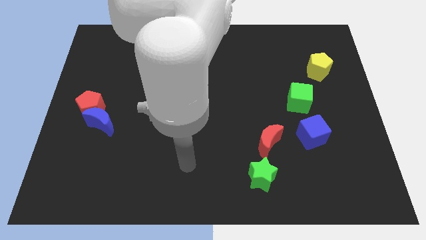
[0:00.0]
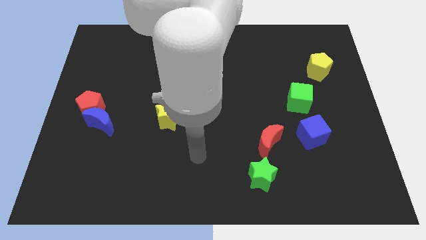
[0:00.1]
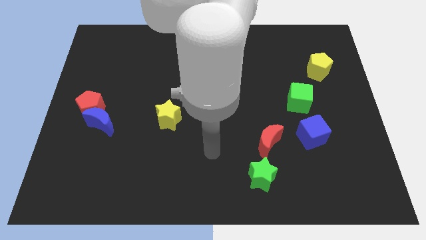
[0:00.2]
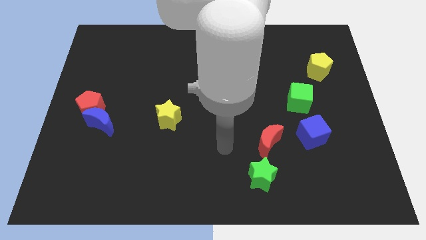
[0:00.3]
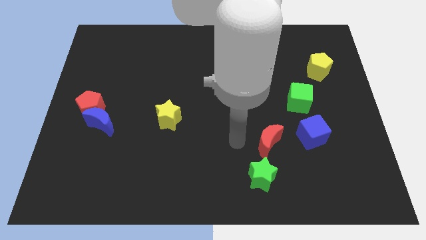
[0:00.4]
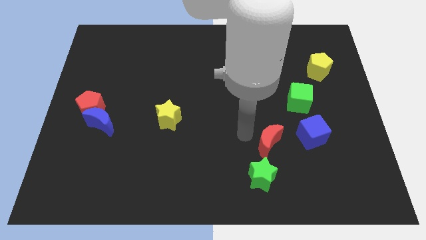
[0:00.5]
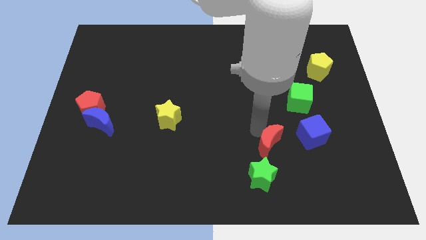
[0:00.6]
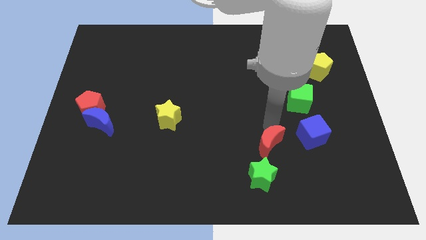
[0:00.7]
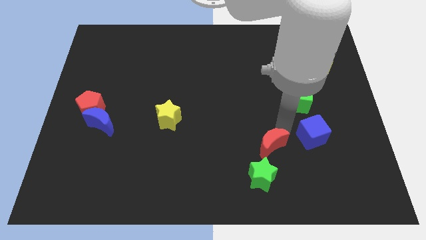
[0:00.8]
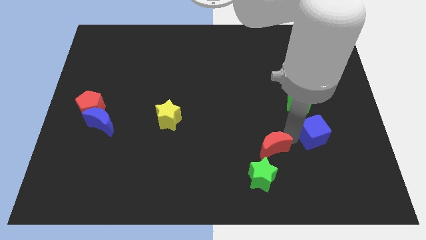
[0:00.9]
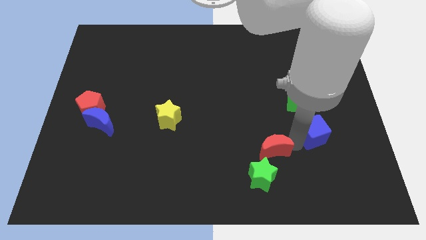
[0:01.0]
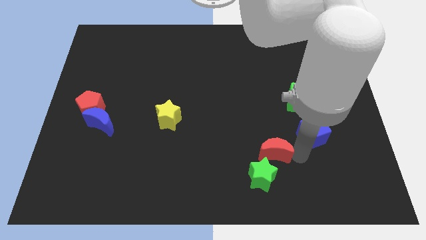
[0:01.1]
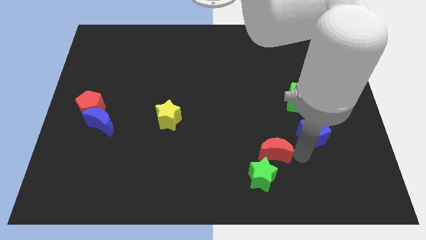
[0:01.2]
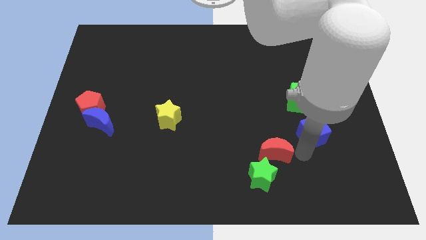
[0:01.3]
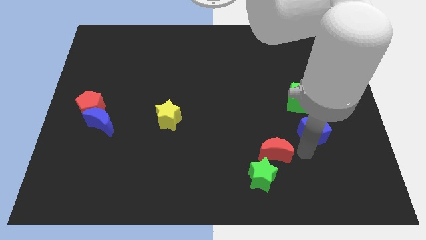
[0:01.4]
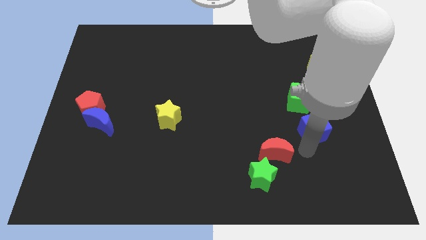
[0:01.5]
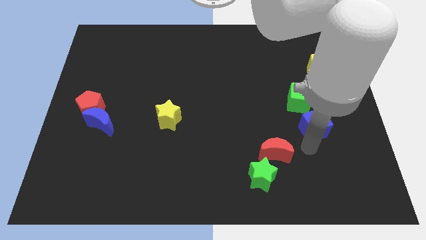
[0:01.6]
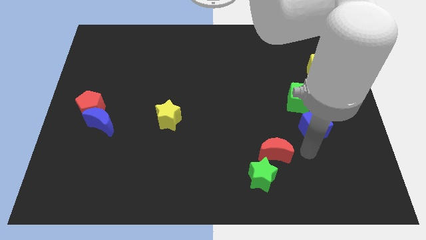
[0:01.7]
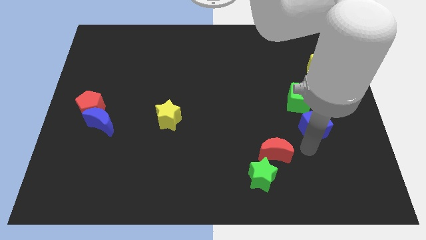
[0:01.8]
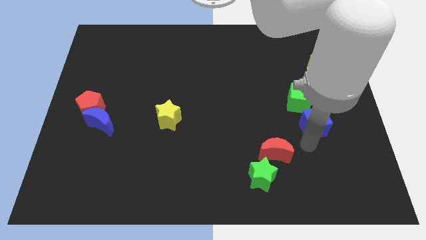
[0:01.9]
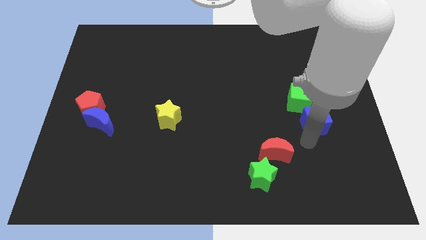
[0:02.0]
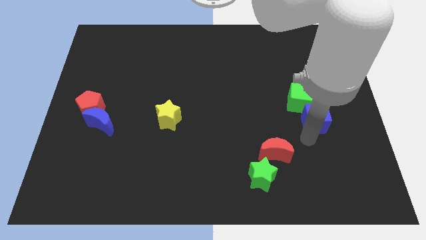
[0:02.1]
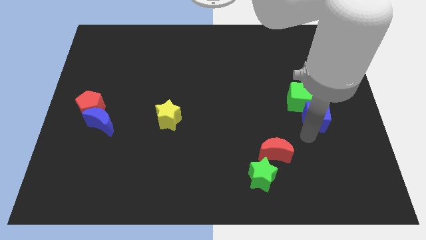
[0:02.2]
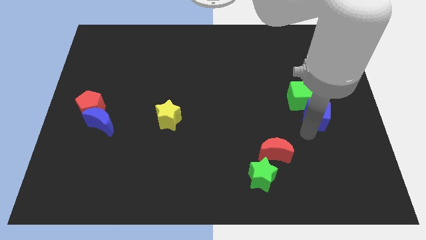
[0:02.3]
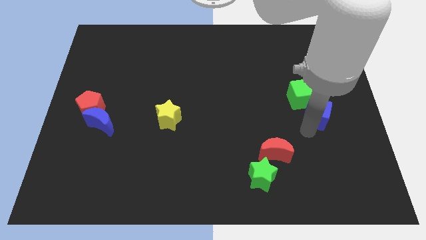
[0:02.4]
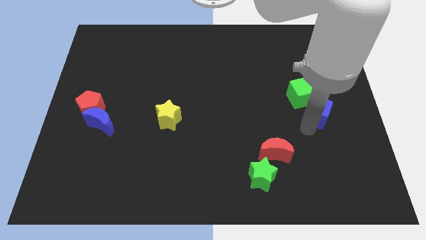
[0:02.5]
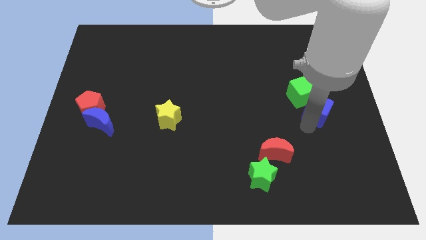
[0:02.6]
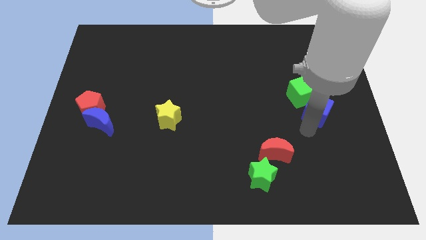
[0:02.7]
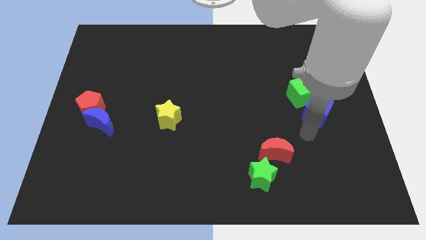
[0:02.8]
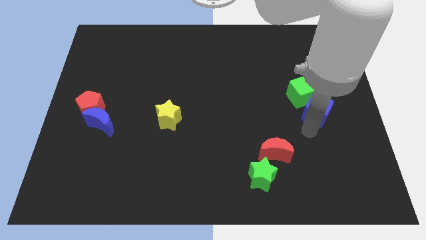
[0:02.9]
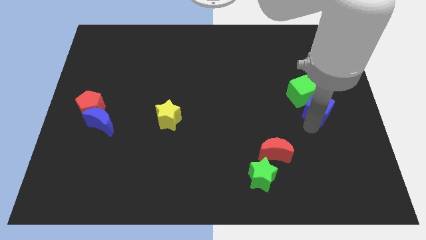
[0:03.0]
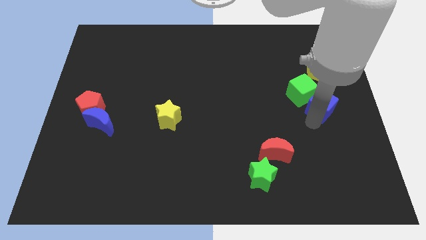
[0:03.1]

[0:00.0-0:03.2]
move the blue cube upwards a little

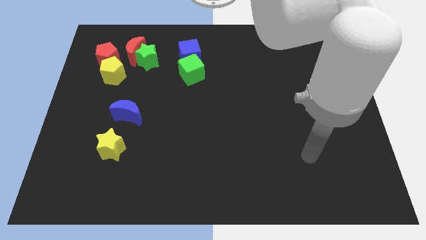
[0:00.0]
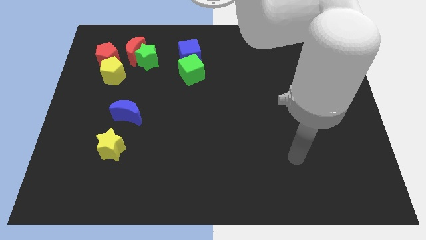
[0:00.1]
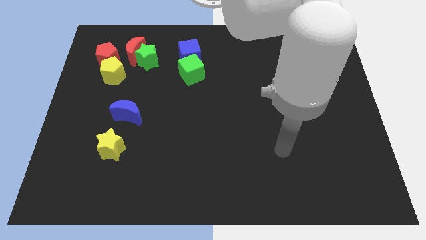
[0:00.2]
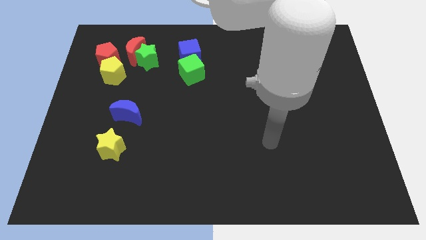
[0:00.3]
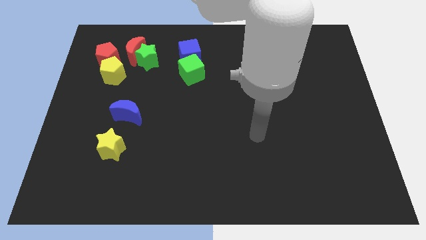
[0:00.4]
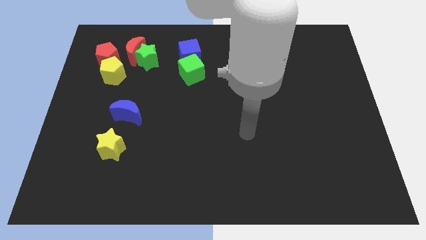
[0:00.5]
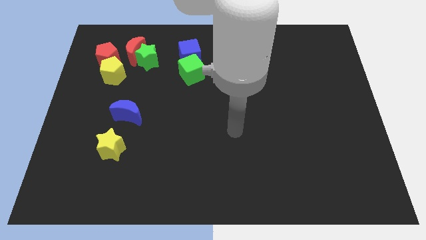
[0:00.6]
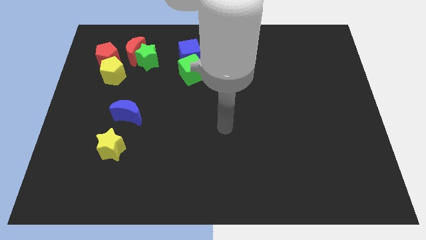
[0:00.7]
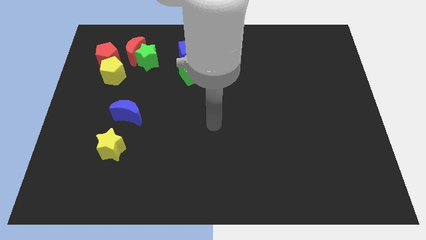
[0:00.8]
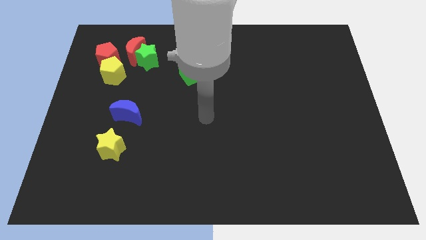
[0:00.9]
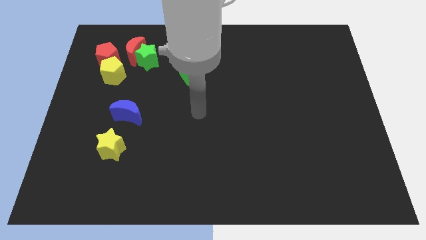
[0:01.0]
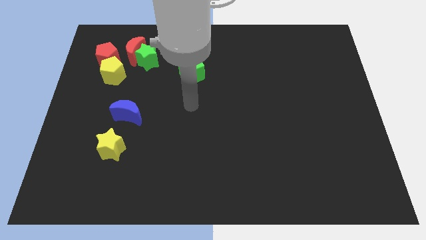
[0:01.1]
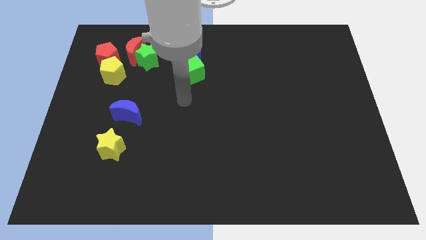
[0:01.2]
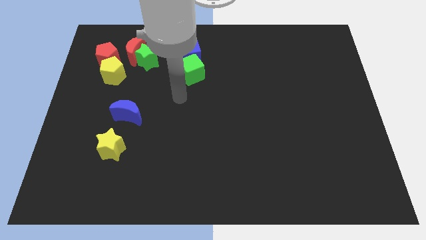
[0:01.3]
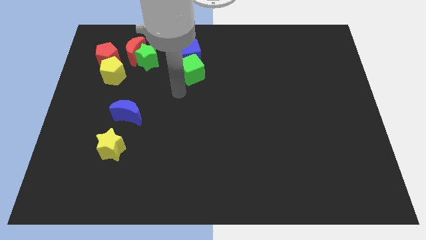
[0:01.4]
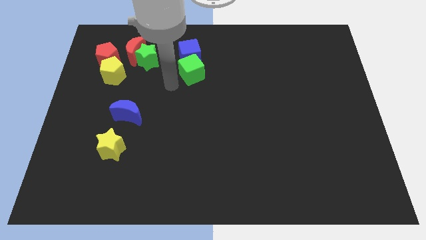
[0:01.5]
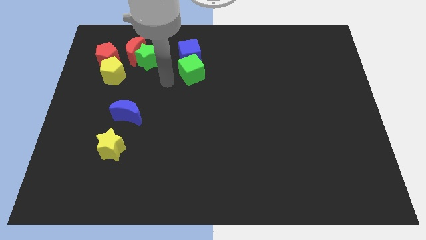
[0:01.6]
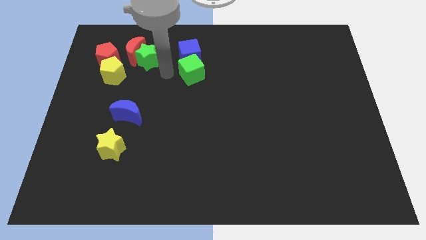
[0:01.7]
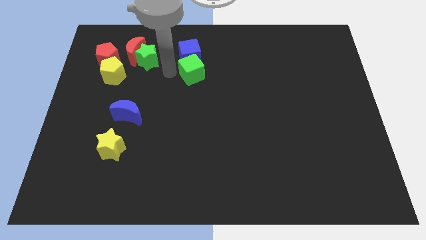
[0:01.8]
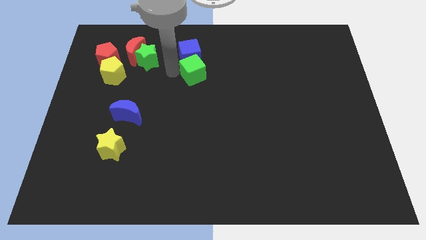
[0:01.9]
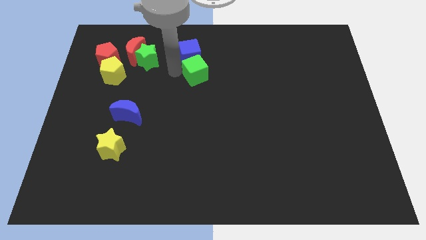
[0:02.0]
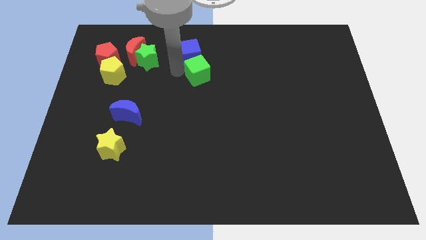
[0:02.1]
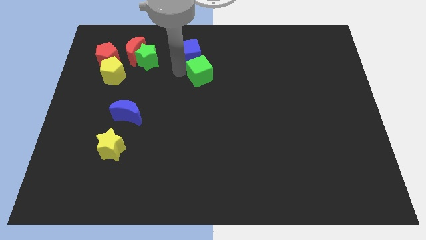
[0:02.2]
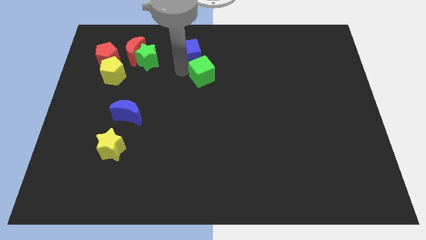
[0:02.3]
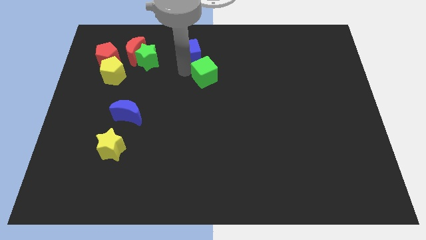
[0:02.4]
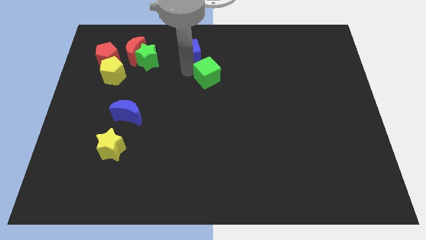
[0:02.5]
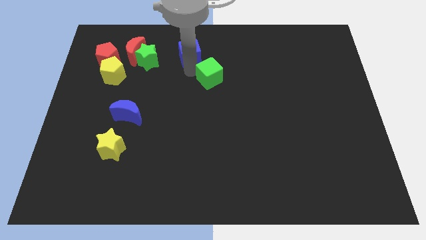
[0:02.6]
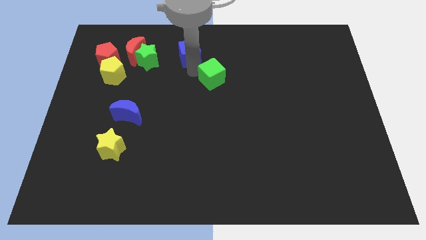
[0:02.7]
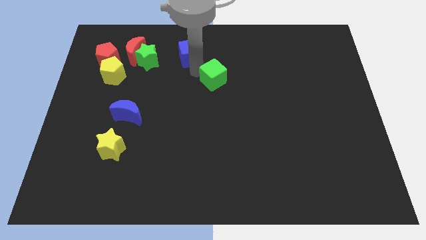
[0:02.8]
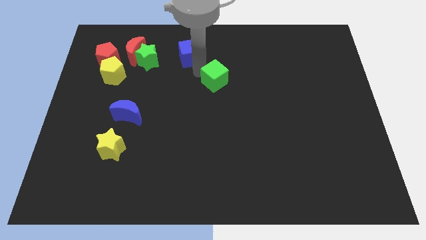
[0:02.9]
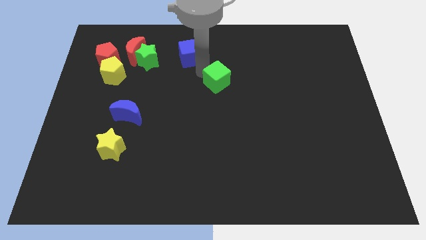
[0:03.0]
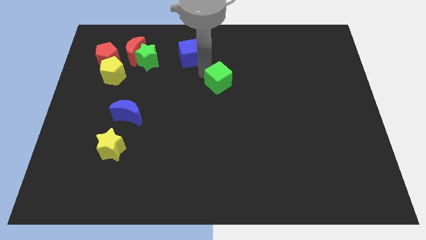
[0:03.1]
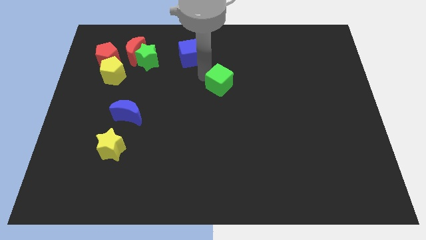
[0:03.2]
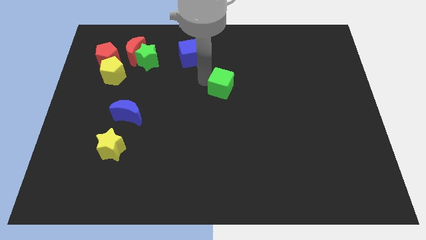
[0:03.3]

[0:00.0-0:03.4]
slightly slide the green cube right

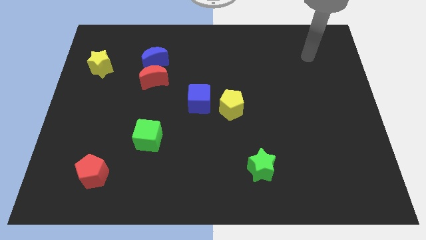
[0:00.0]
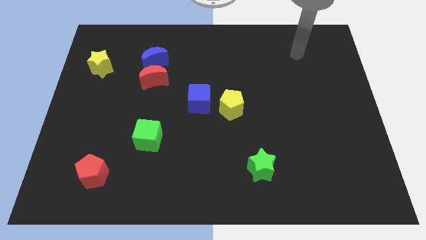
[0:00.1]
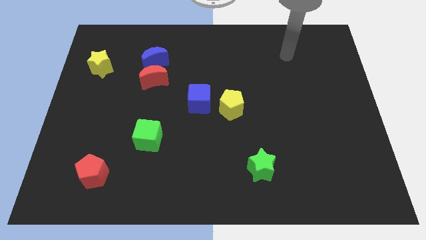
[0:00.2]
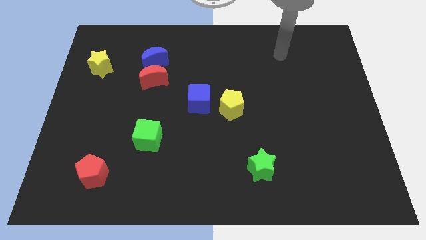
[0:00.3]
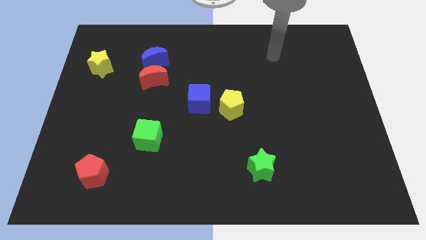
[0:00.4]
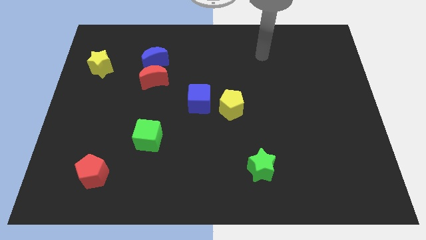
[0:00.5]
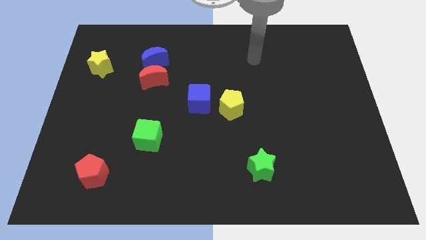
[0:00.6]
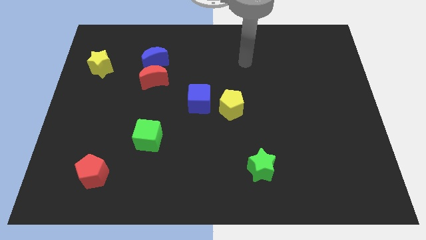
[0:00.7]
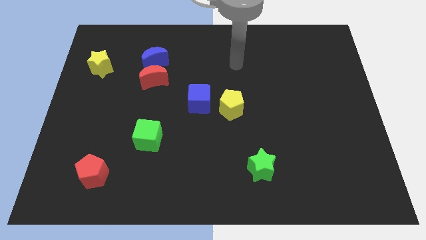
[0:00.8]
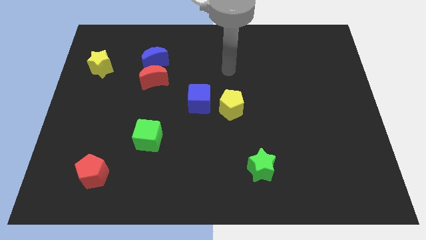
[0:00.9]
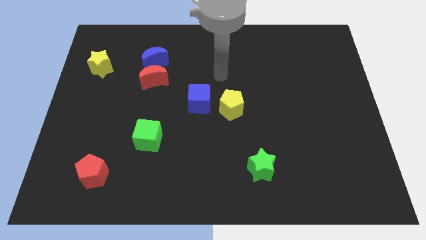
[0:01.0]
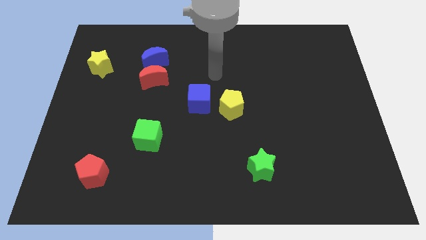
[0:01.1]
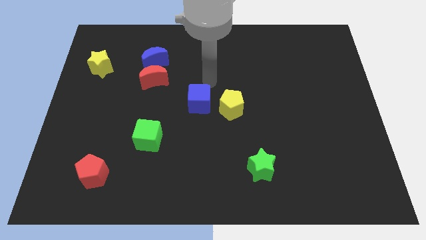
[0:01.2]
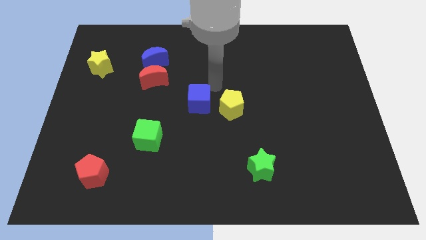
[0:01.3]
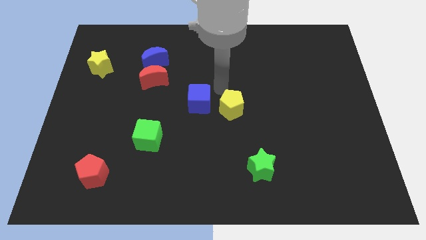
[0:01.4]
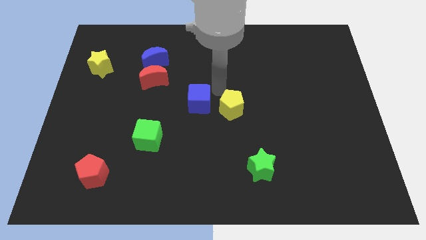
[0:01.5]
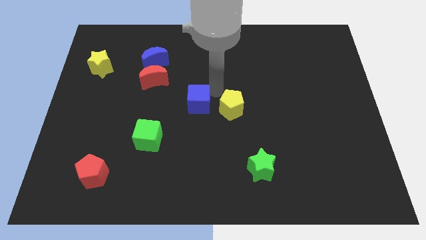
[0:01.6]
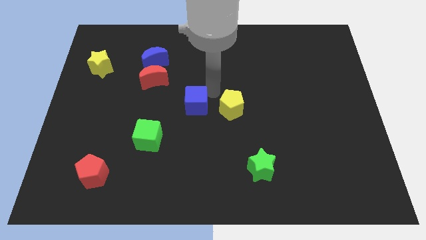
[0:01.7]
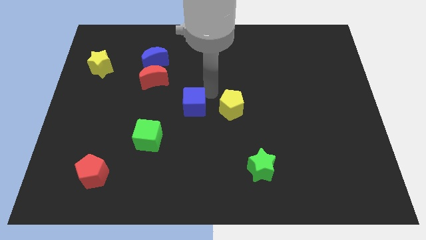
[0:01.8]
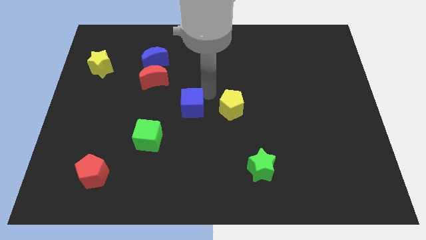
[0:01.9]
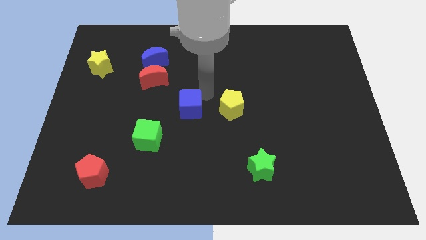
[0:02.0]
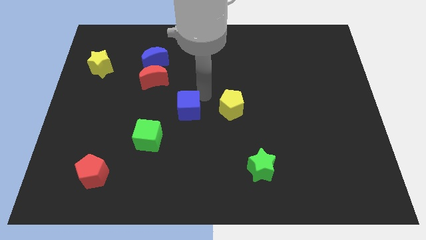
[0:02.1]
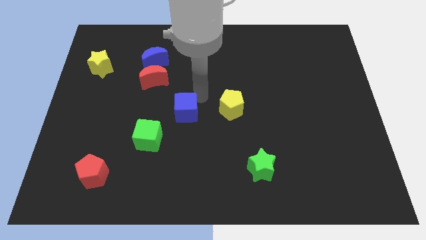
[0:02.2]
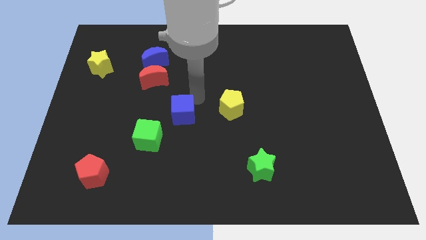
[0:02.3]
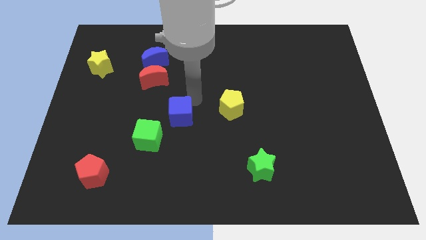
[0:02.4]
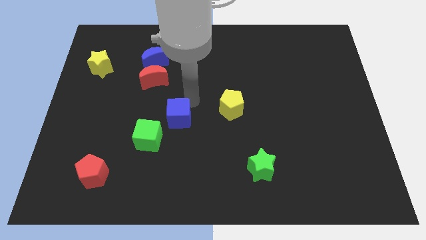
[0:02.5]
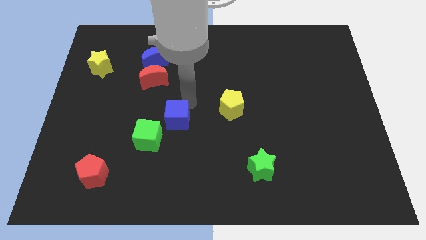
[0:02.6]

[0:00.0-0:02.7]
slide the blue cube a bit diagonally down and left
